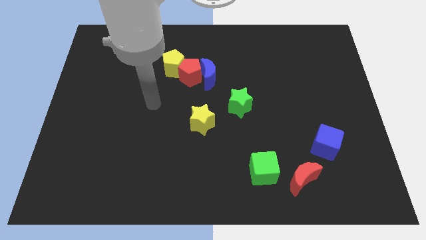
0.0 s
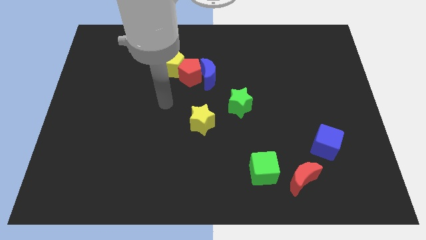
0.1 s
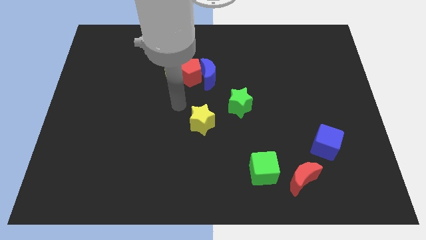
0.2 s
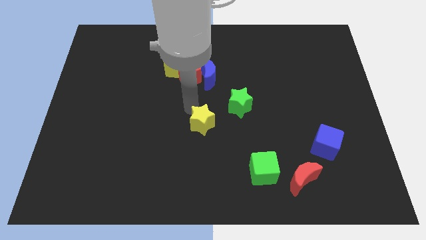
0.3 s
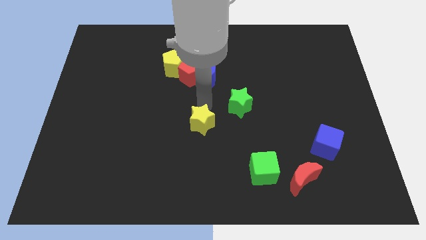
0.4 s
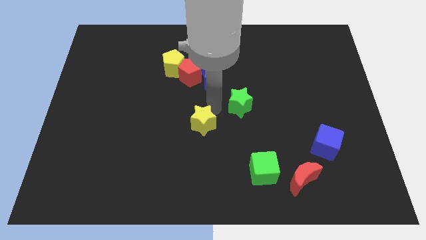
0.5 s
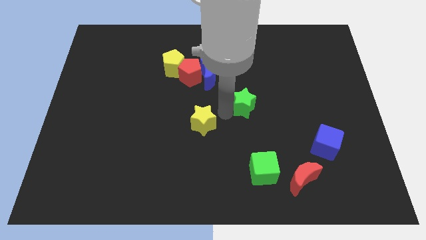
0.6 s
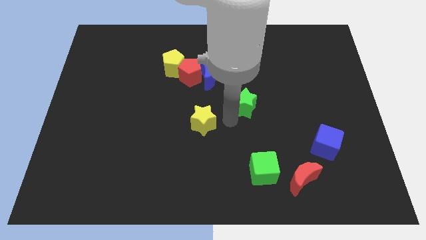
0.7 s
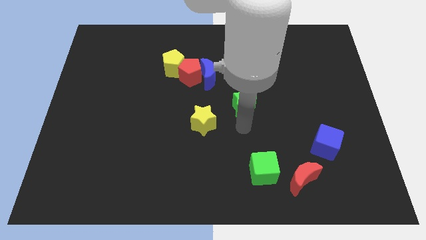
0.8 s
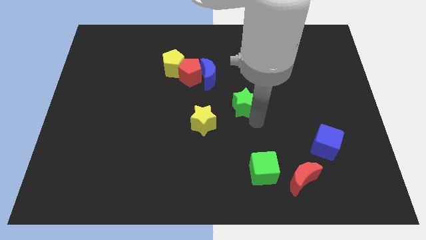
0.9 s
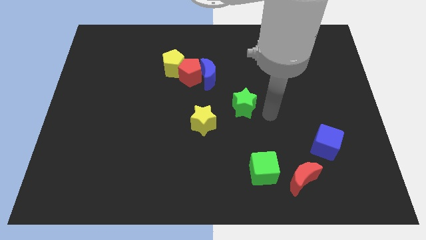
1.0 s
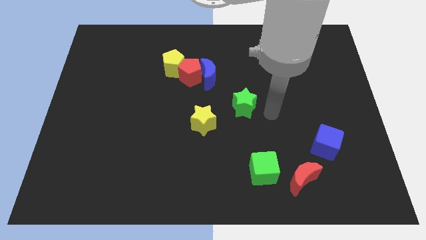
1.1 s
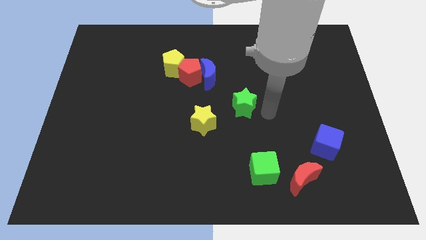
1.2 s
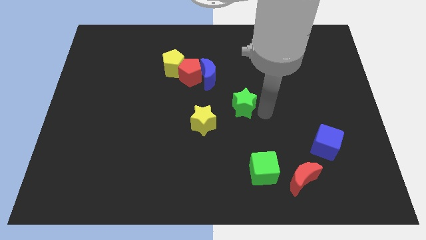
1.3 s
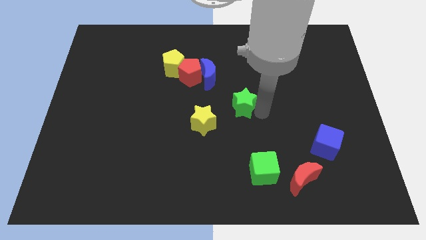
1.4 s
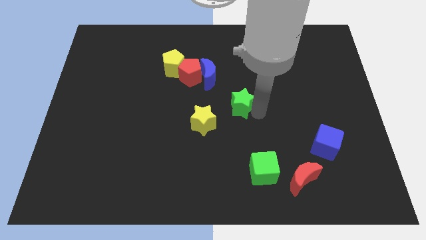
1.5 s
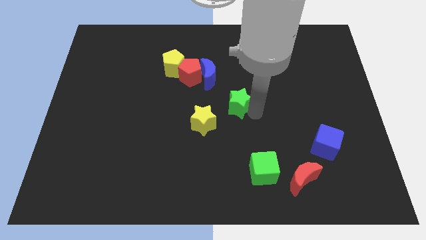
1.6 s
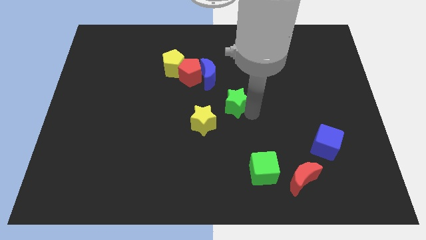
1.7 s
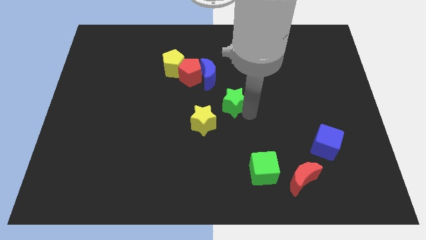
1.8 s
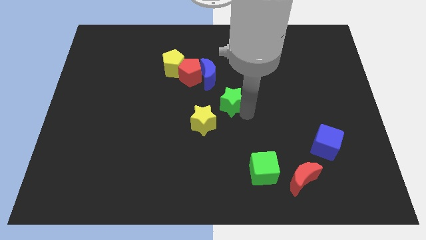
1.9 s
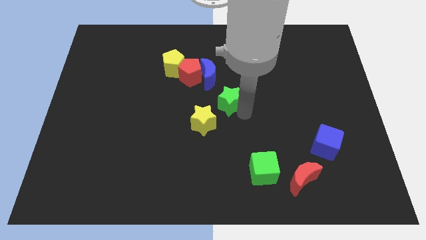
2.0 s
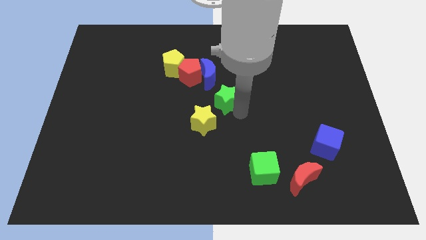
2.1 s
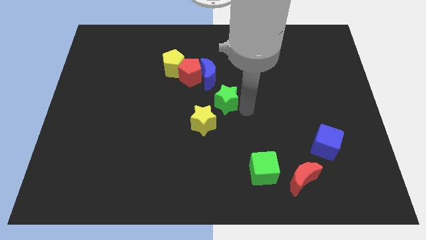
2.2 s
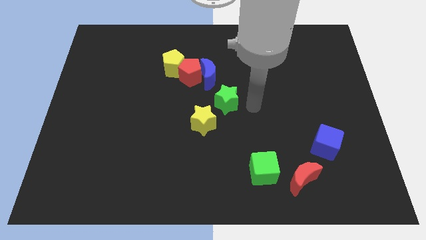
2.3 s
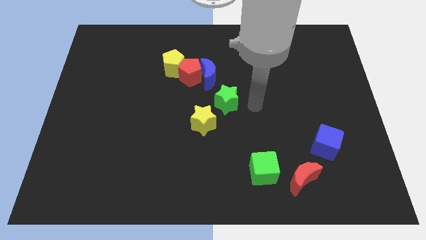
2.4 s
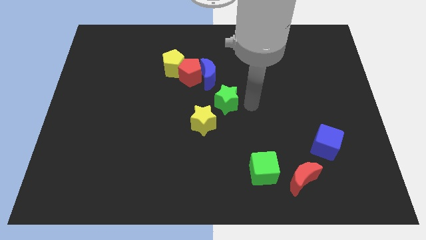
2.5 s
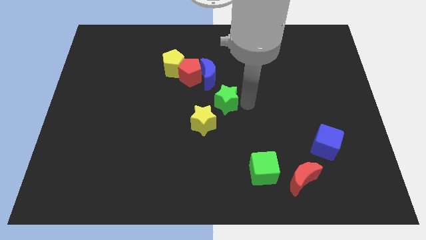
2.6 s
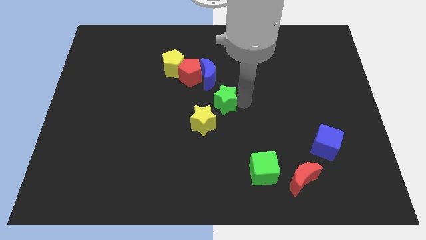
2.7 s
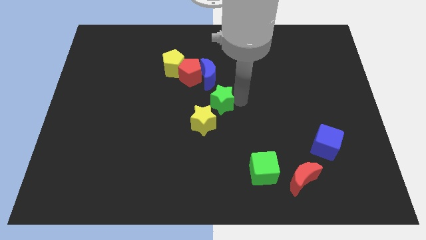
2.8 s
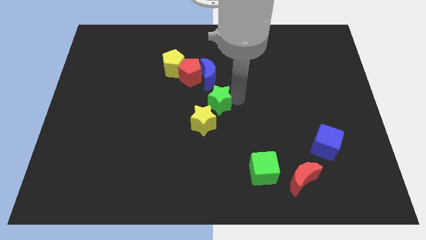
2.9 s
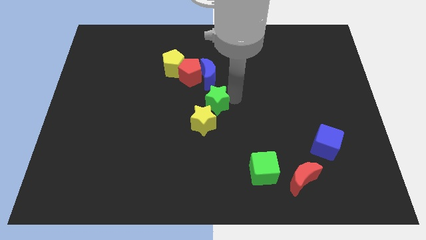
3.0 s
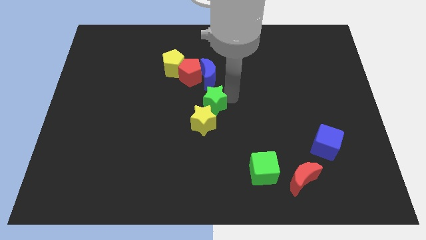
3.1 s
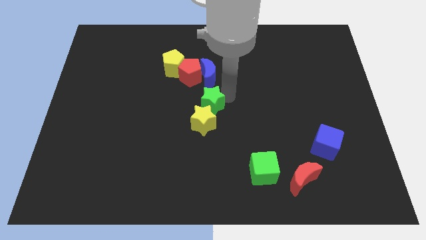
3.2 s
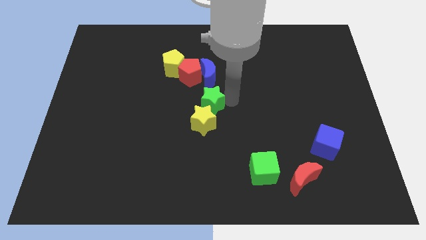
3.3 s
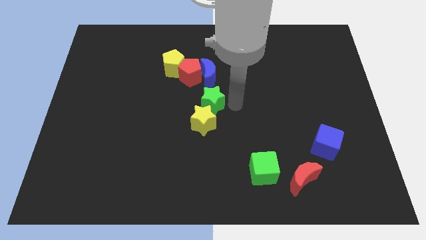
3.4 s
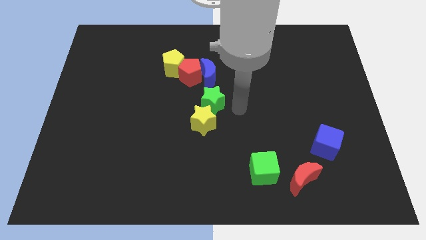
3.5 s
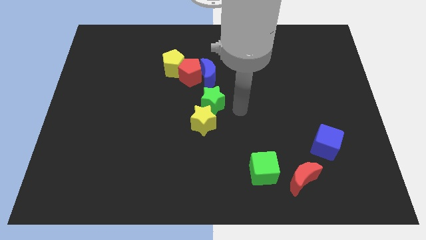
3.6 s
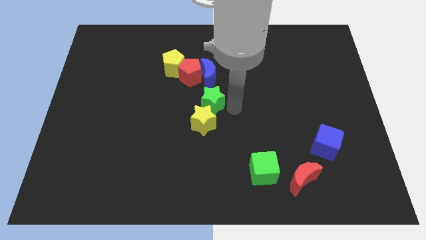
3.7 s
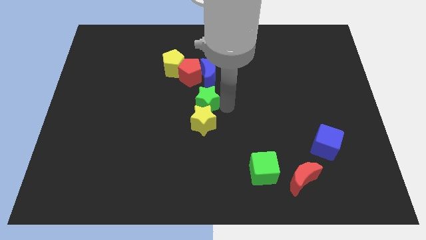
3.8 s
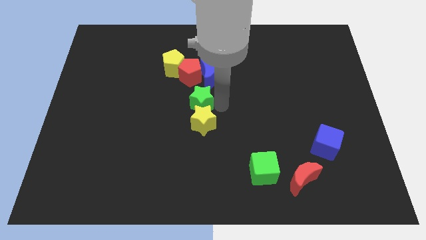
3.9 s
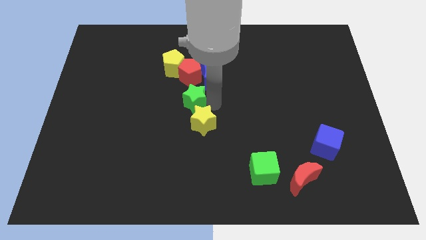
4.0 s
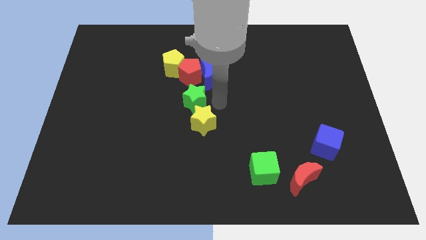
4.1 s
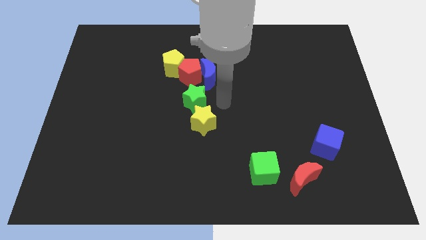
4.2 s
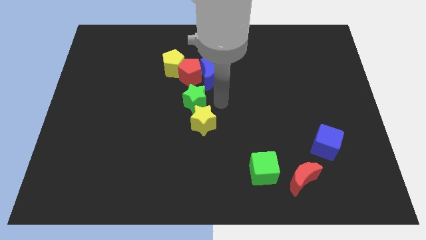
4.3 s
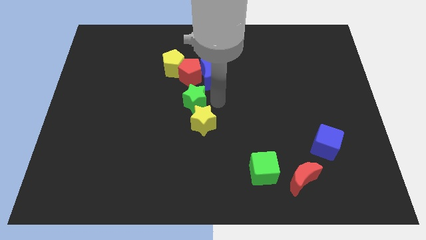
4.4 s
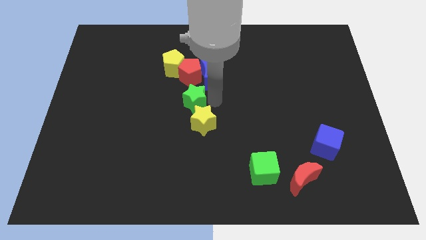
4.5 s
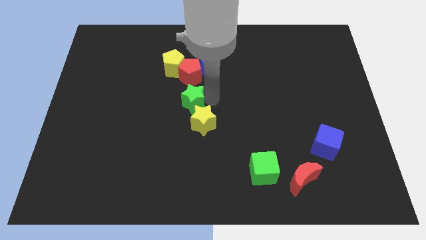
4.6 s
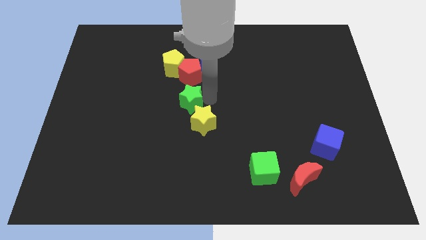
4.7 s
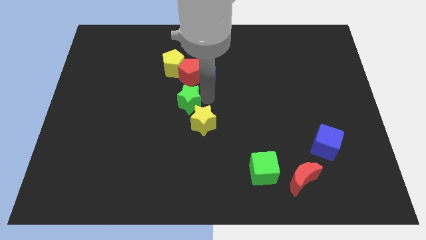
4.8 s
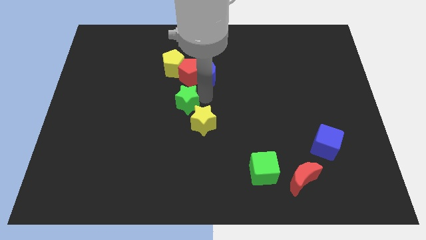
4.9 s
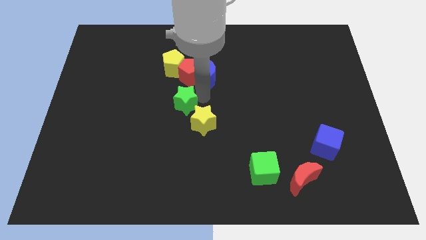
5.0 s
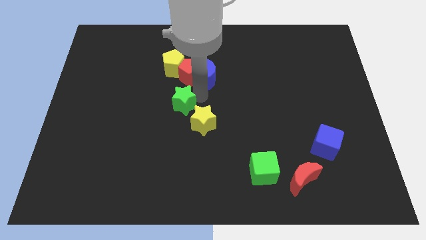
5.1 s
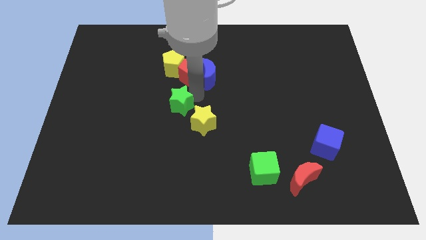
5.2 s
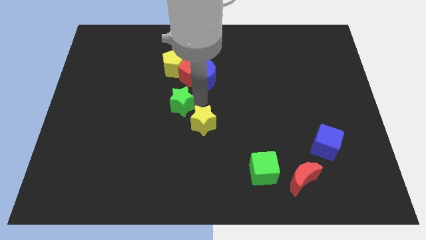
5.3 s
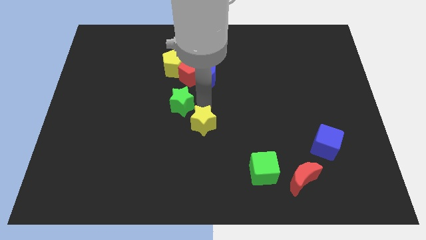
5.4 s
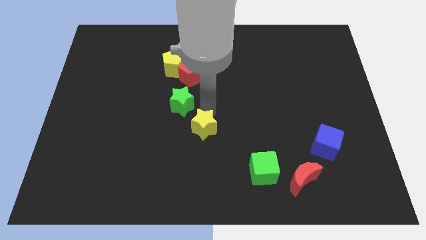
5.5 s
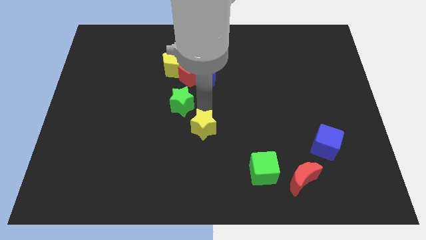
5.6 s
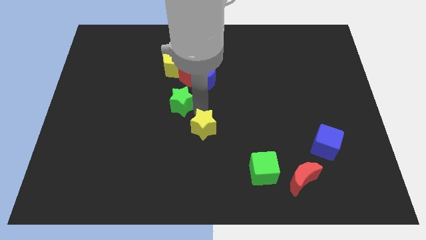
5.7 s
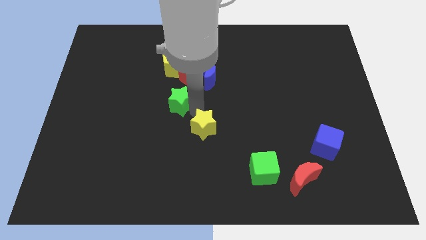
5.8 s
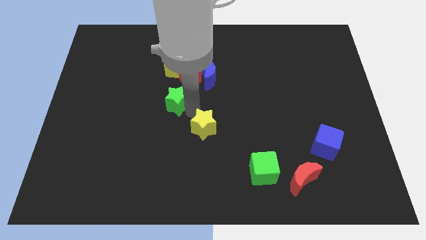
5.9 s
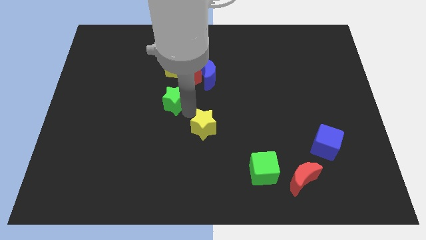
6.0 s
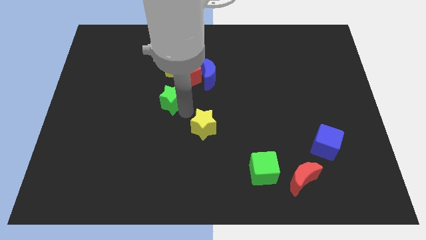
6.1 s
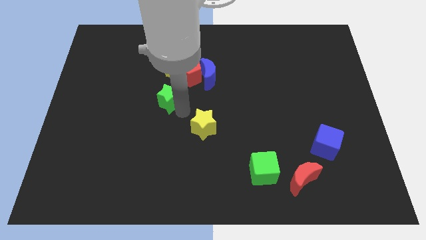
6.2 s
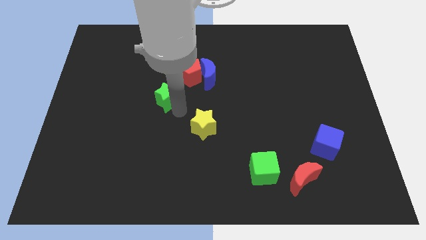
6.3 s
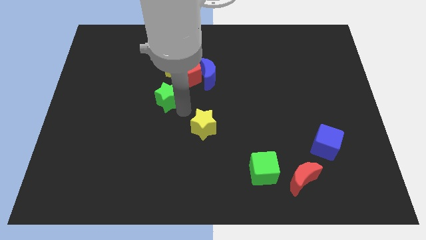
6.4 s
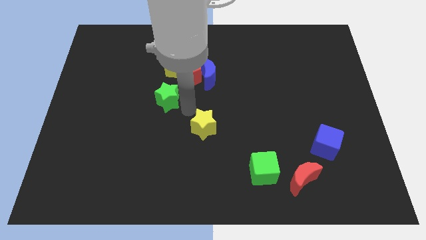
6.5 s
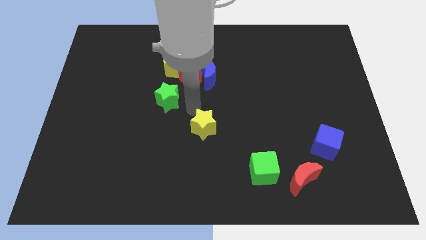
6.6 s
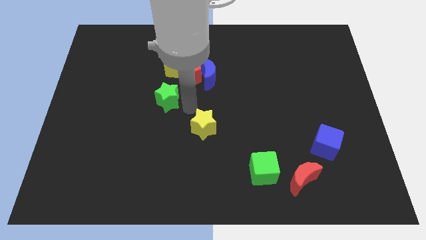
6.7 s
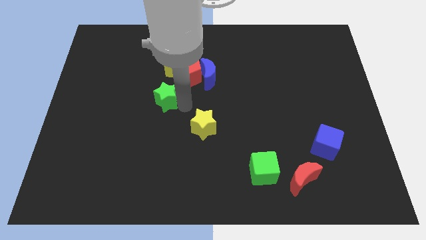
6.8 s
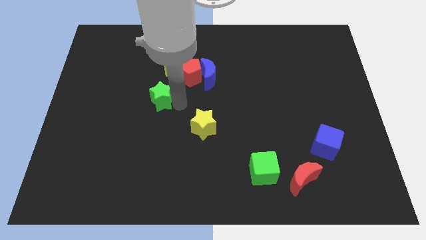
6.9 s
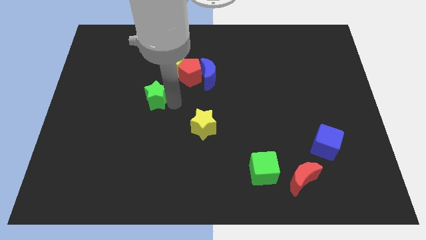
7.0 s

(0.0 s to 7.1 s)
move the green star left

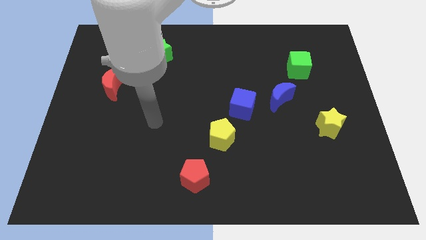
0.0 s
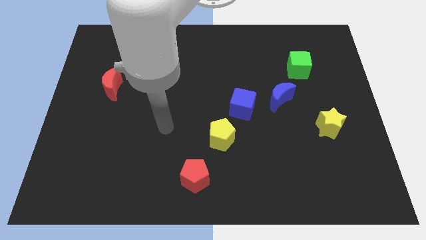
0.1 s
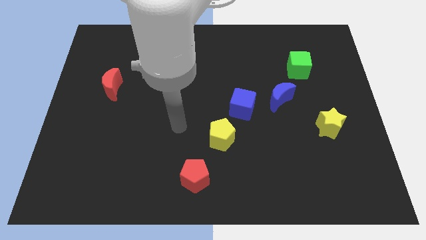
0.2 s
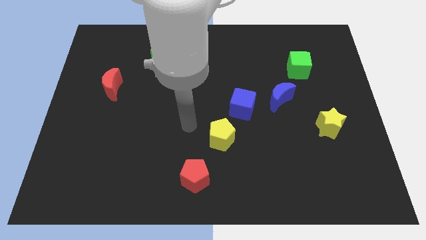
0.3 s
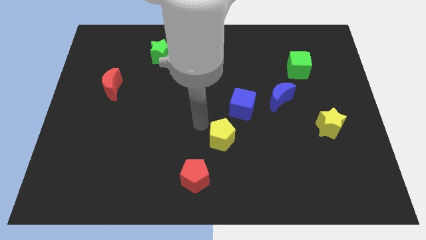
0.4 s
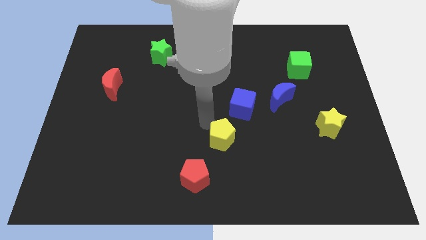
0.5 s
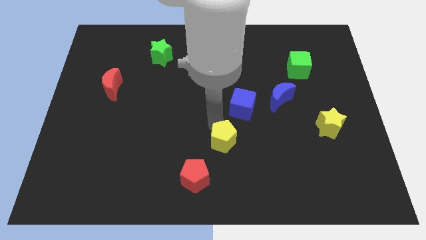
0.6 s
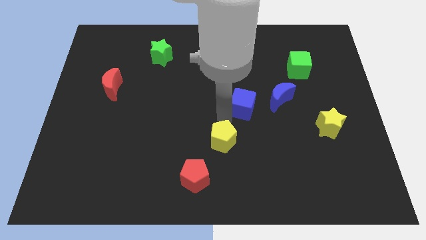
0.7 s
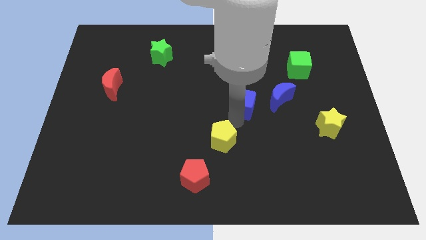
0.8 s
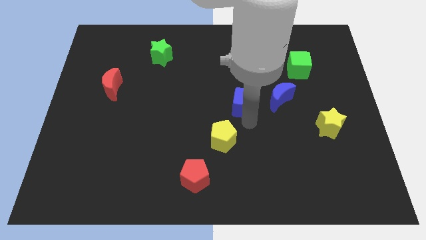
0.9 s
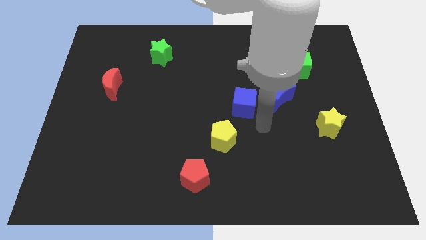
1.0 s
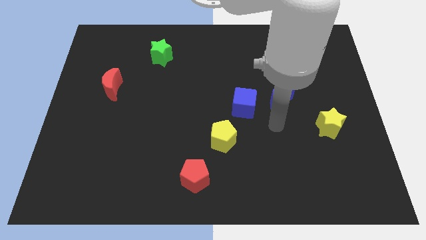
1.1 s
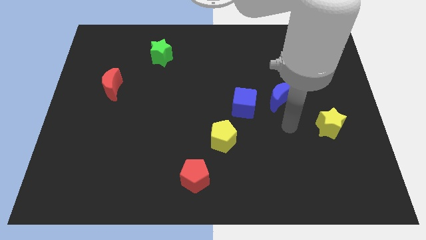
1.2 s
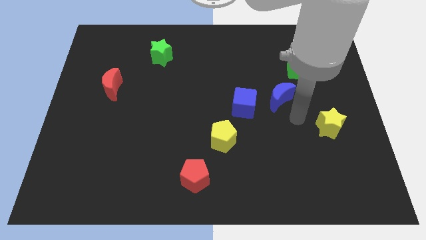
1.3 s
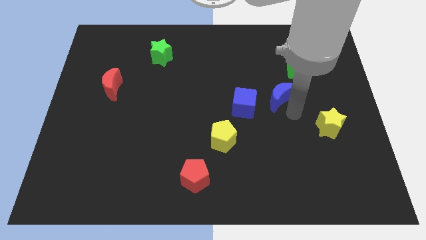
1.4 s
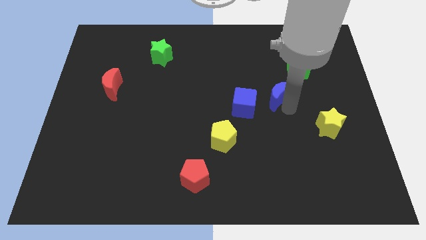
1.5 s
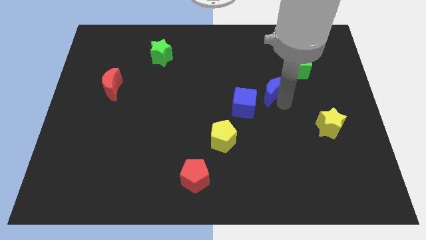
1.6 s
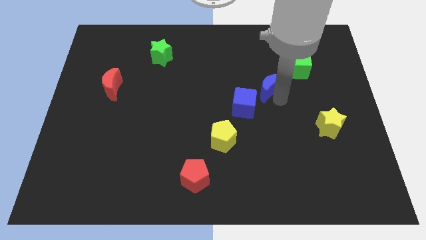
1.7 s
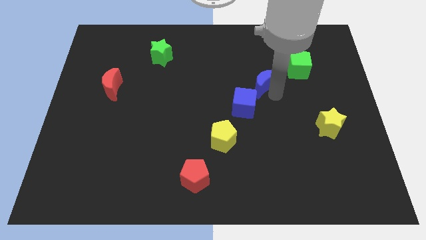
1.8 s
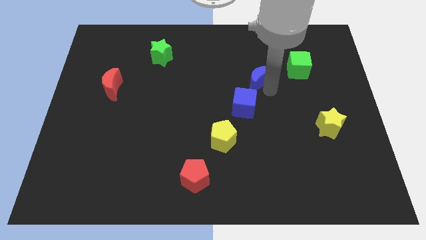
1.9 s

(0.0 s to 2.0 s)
slightly push the blue moon up and left diagonally
